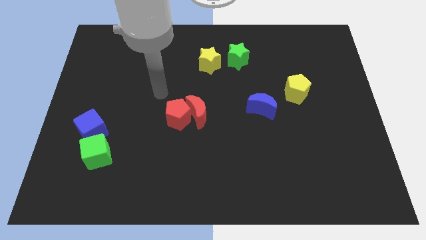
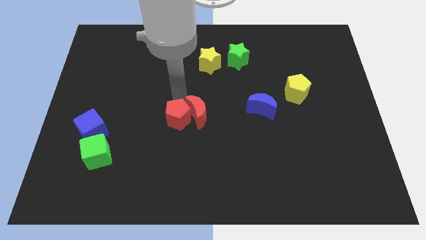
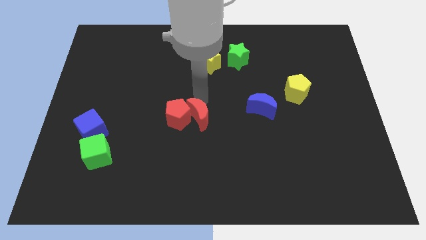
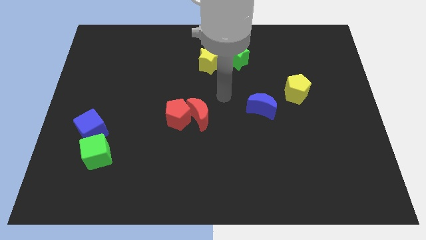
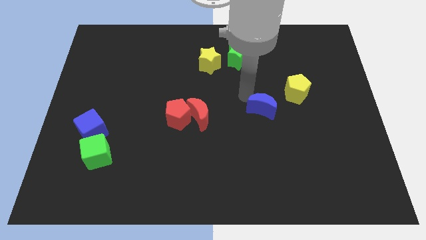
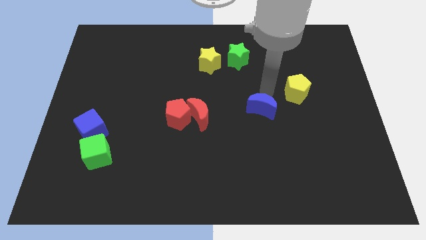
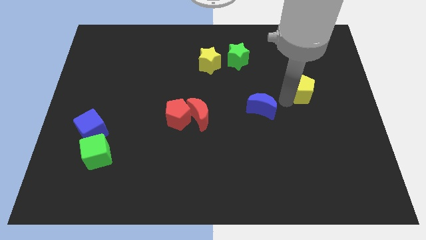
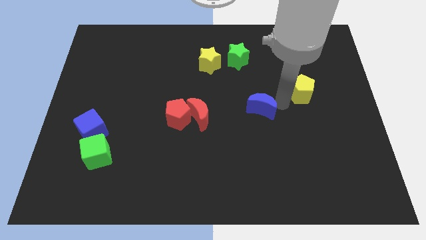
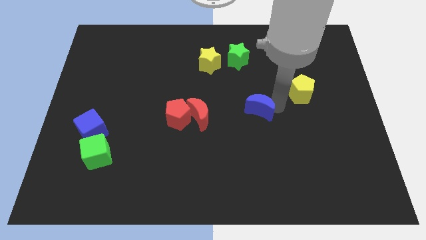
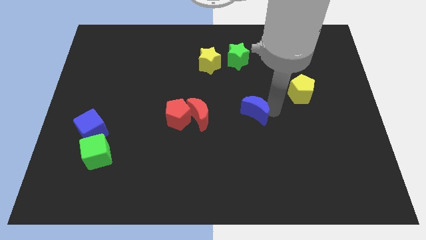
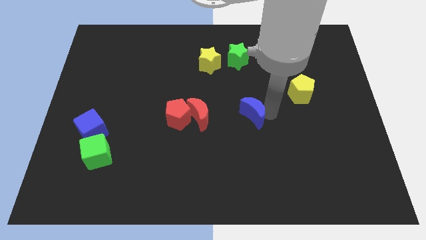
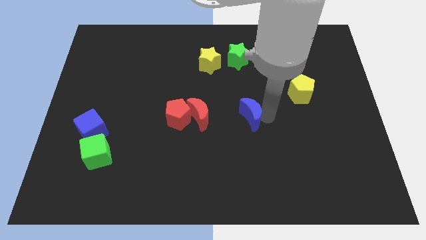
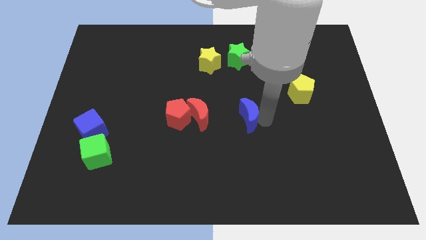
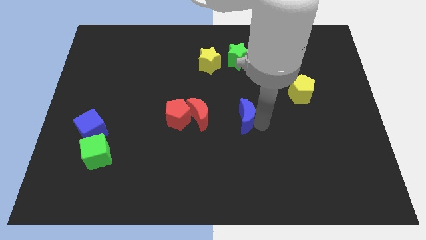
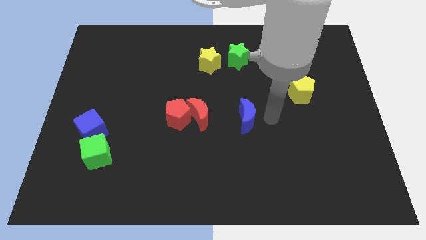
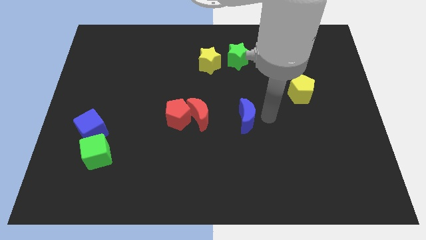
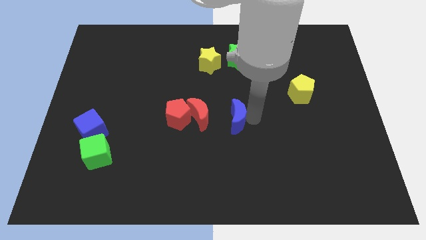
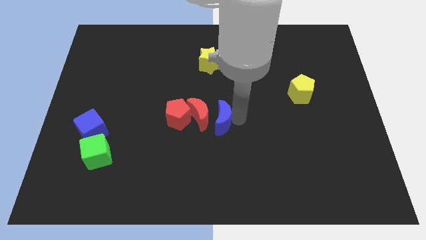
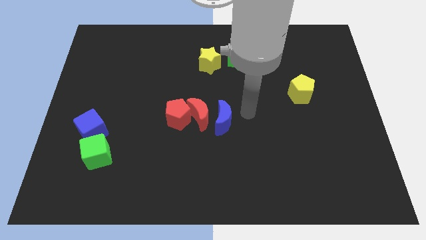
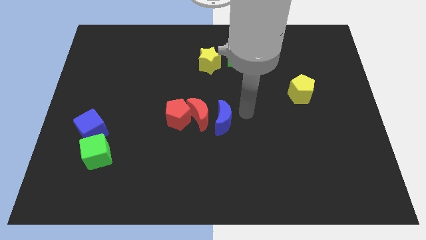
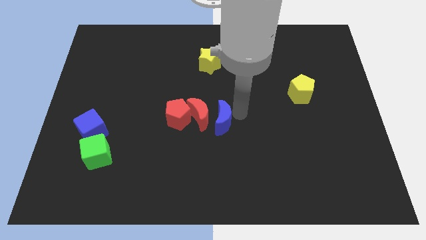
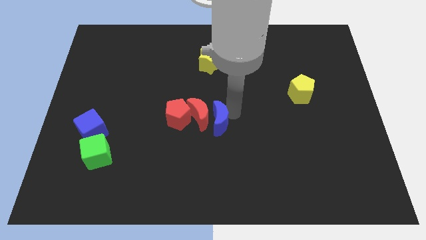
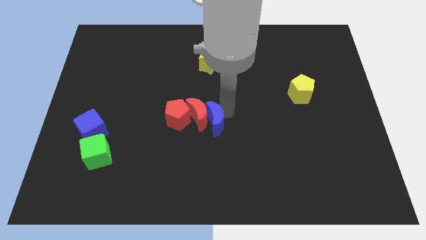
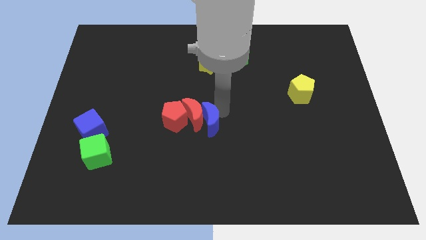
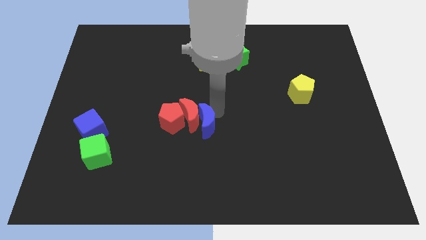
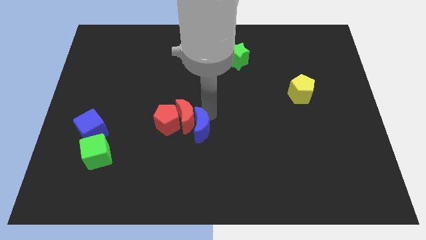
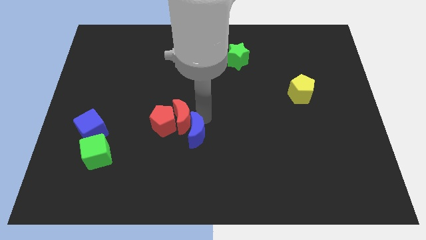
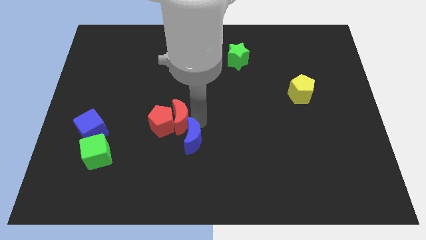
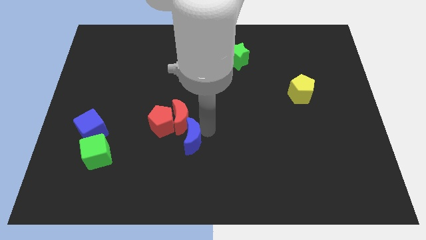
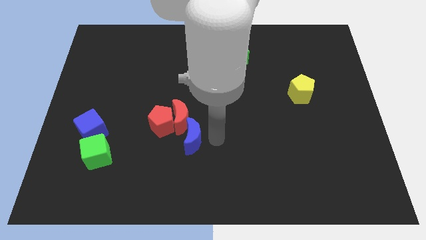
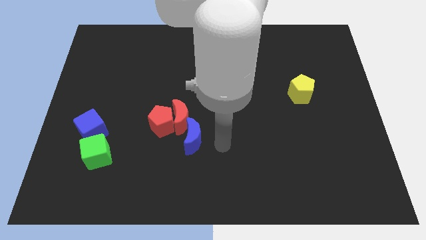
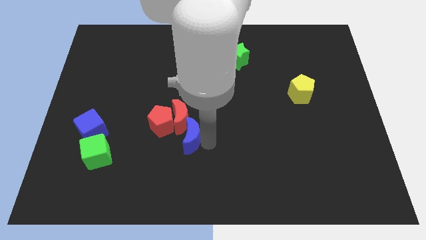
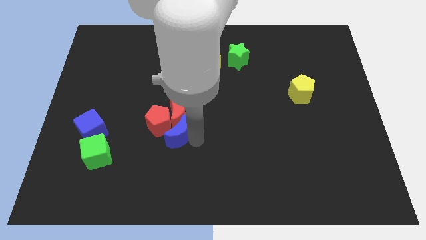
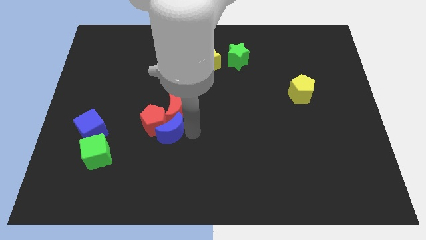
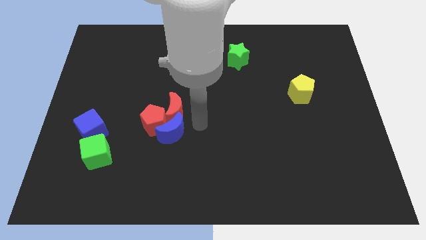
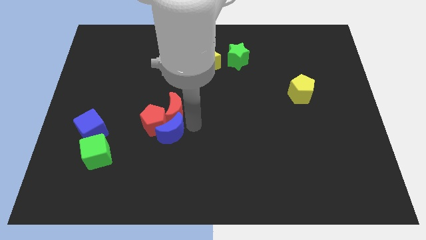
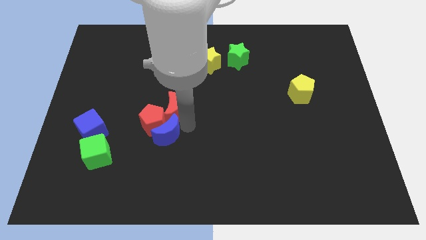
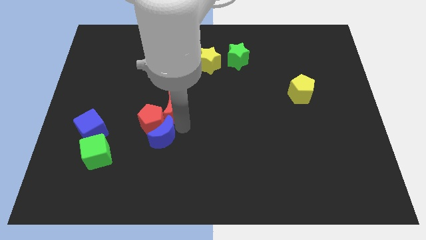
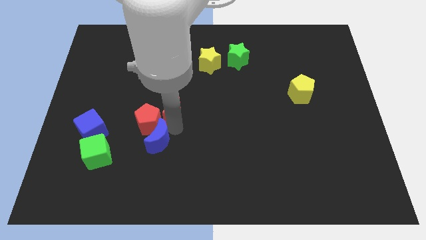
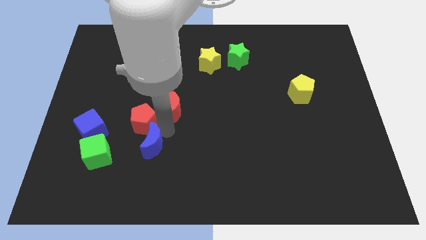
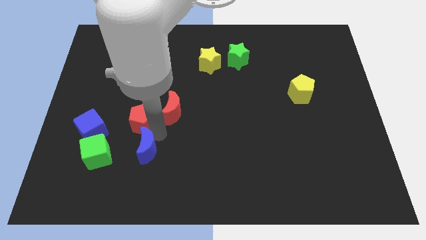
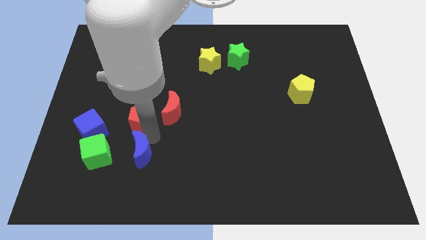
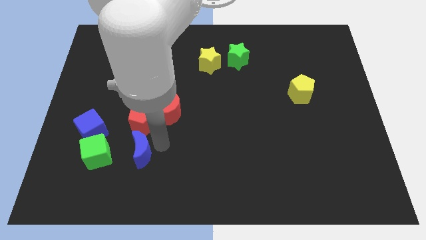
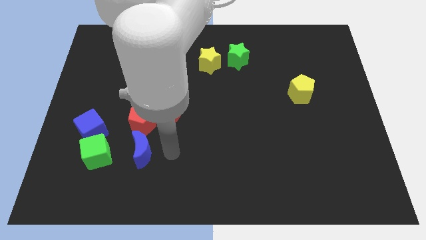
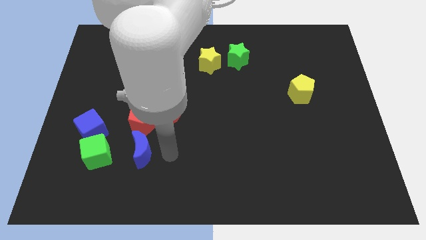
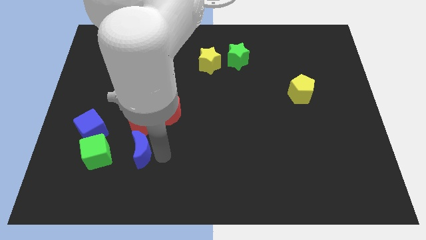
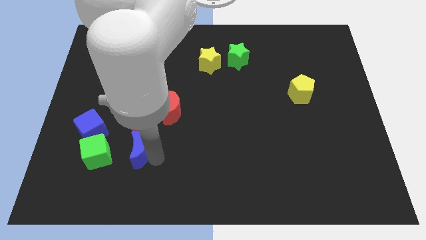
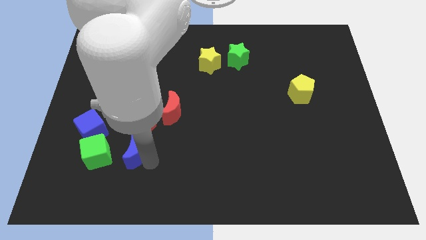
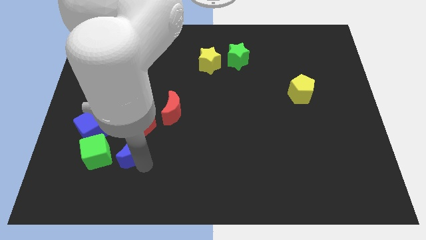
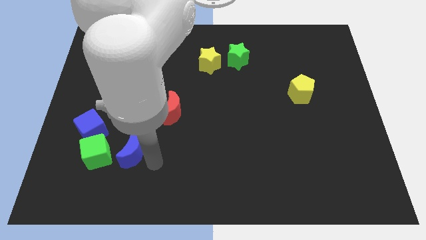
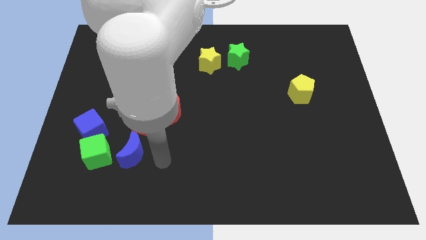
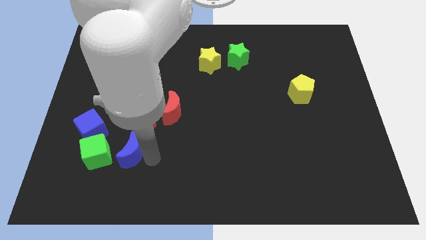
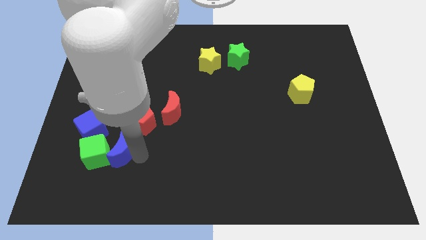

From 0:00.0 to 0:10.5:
move the blue moon close to the green cube

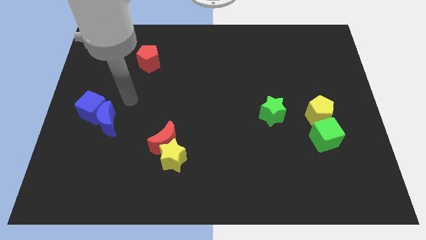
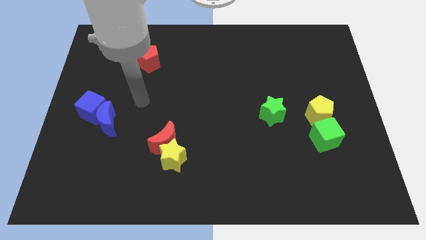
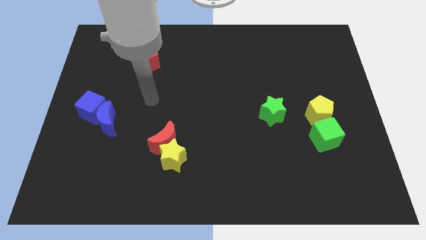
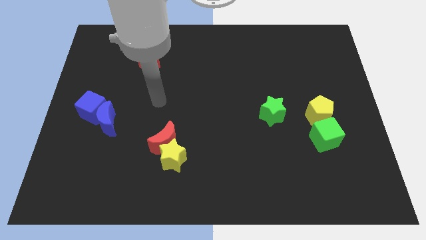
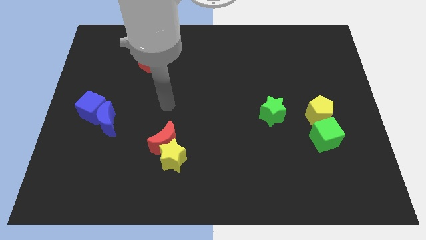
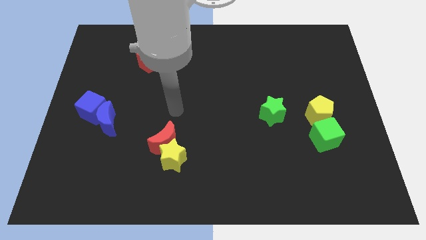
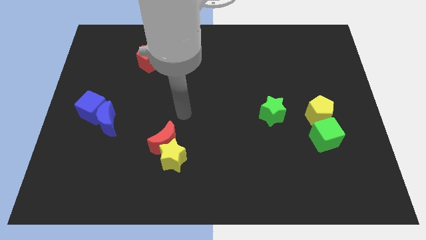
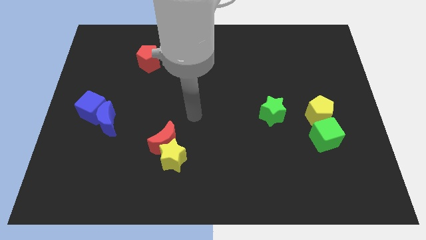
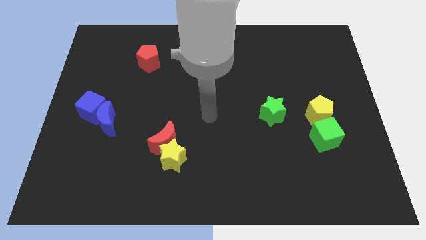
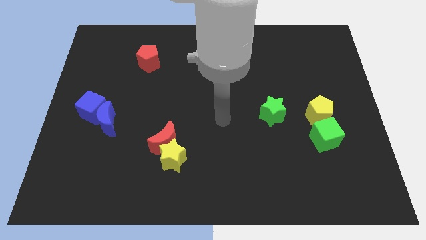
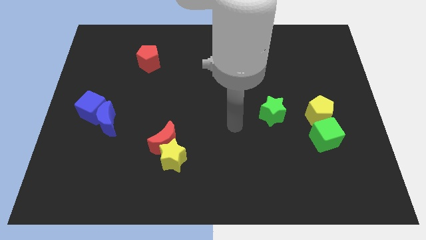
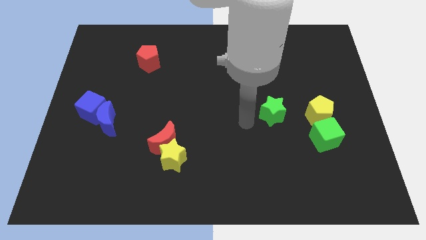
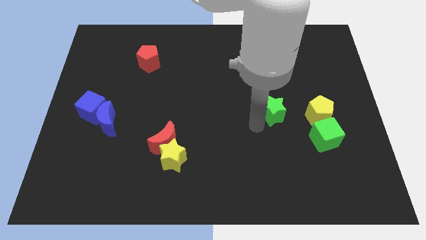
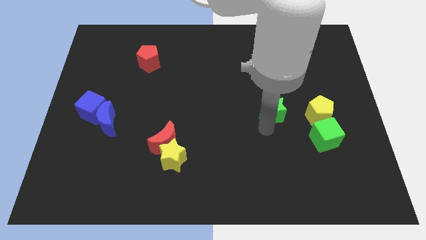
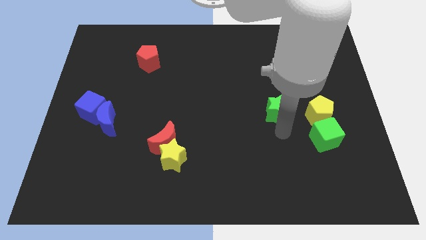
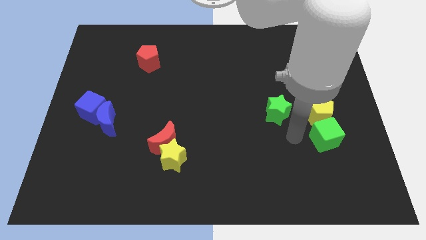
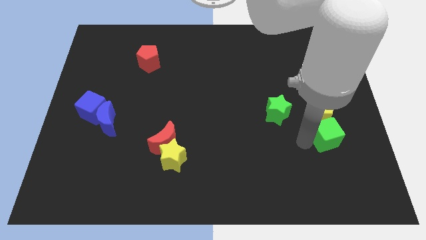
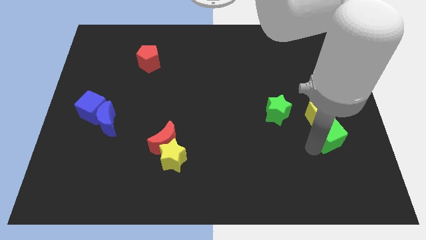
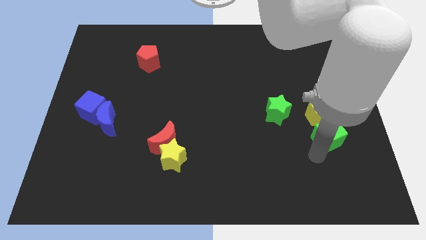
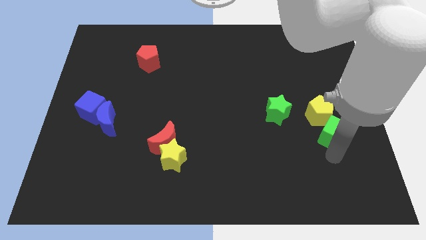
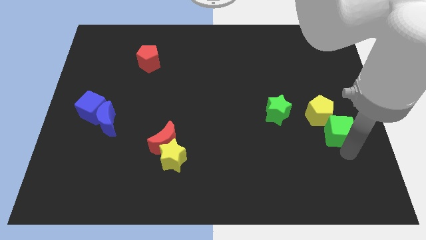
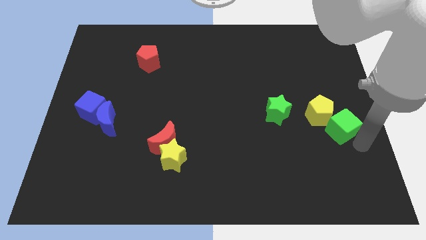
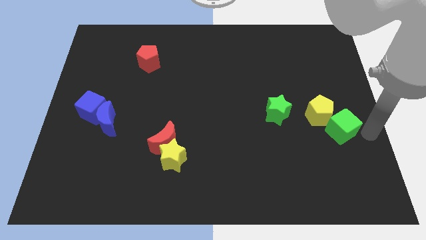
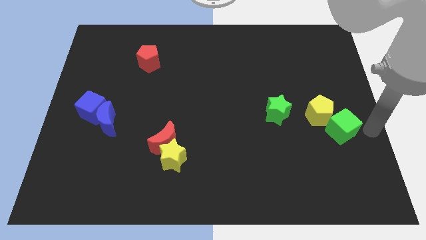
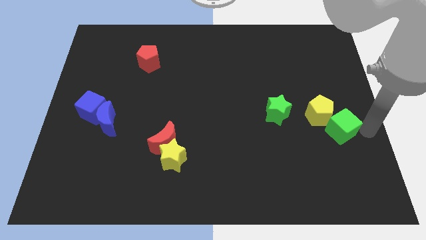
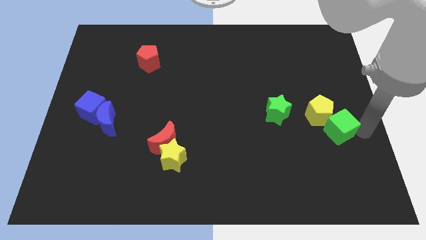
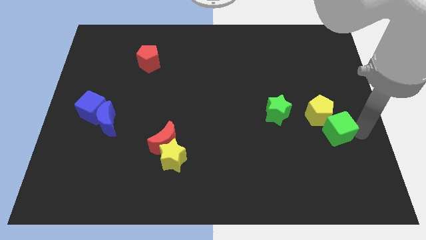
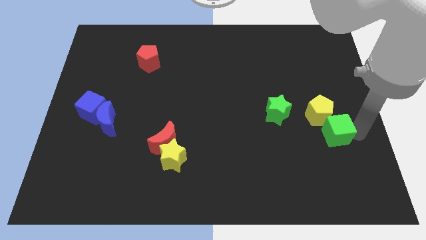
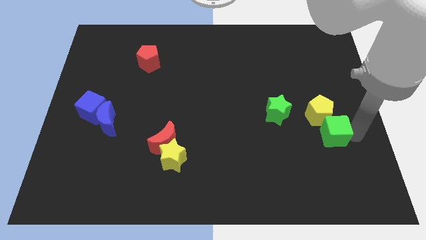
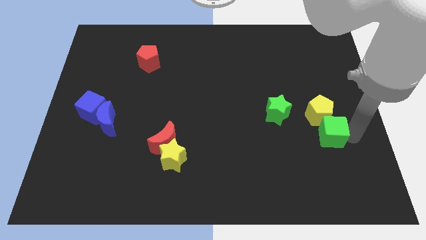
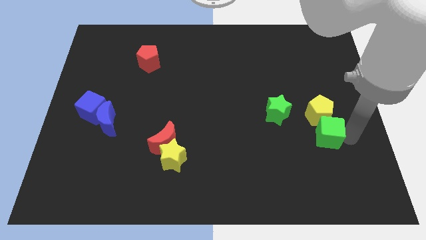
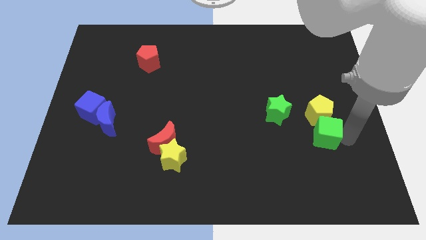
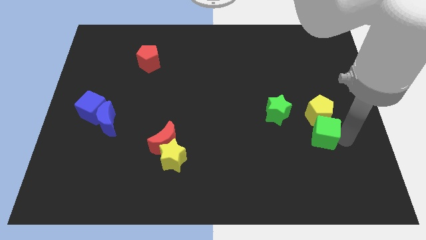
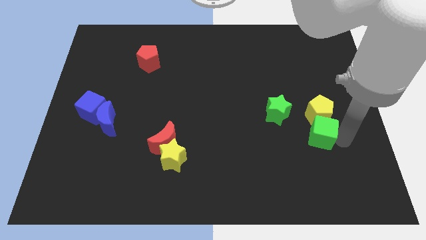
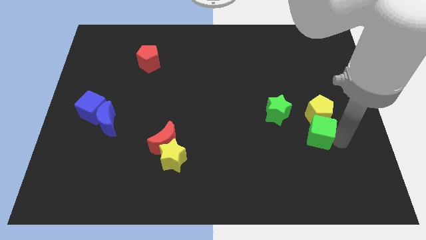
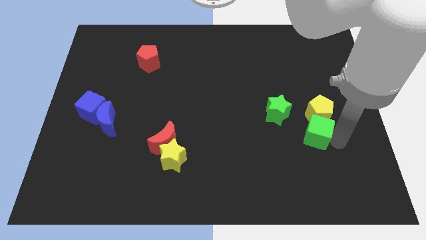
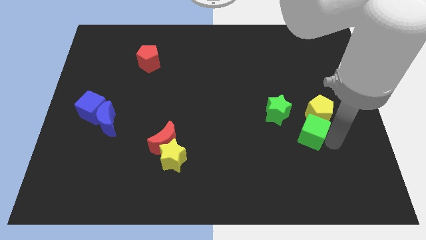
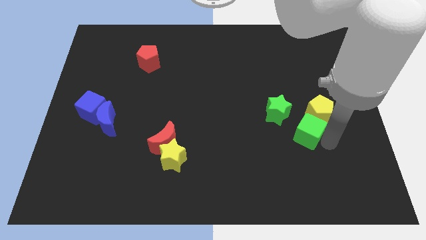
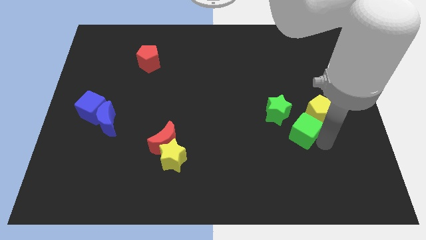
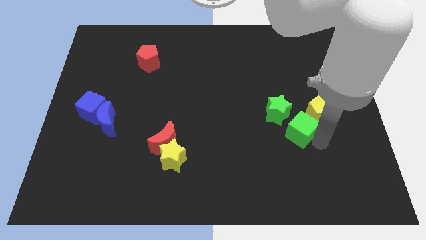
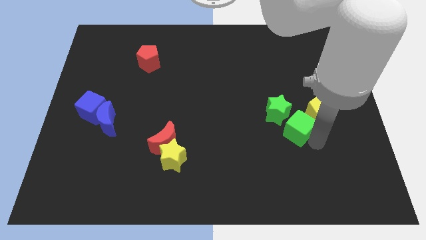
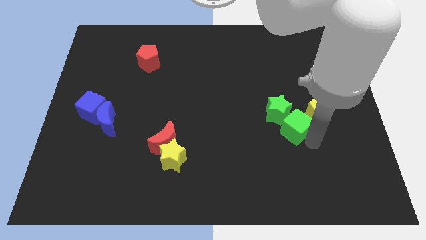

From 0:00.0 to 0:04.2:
move the green cube towards the green star
